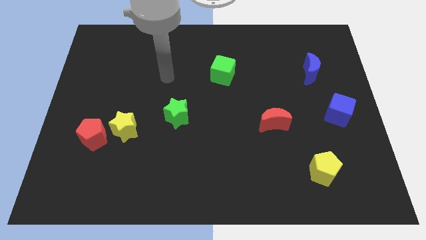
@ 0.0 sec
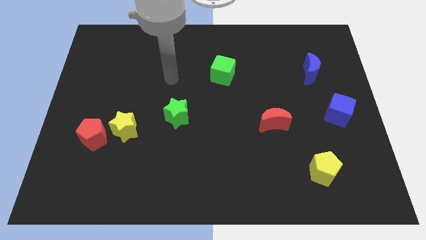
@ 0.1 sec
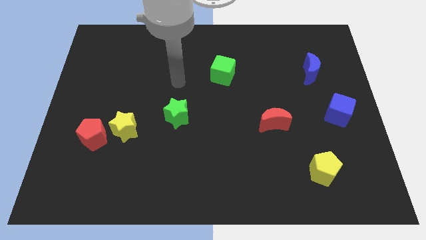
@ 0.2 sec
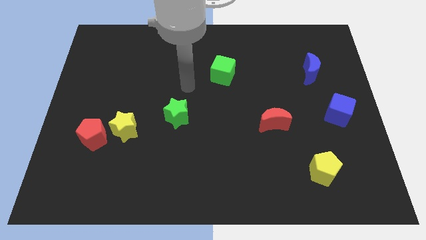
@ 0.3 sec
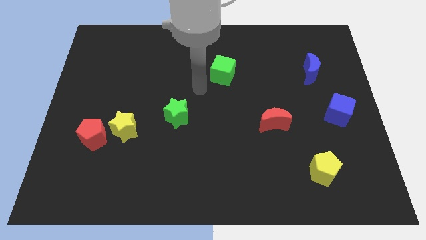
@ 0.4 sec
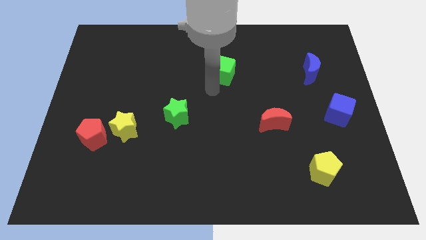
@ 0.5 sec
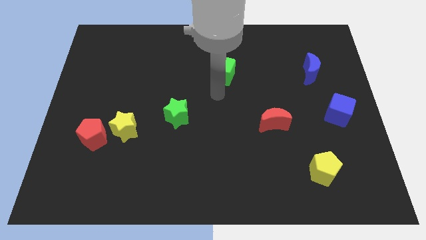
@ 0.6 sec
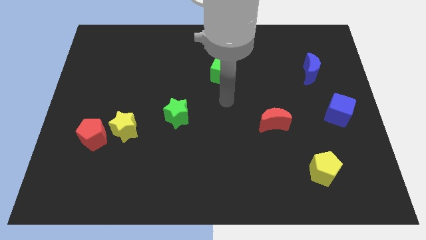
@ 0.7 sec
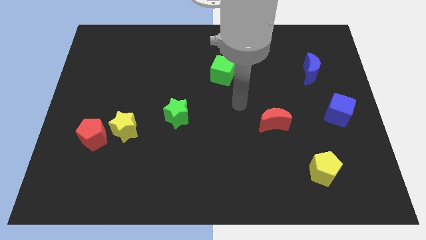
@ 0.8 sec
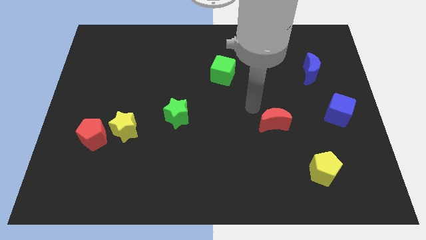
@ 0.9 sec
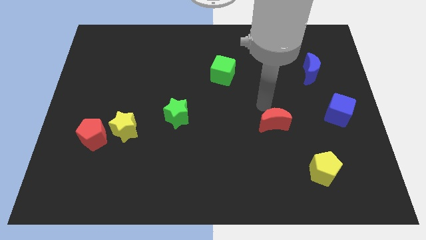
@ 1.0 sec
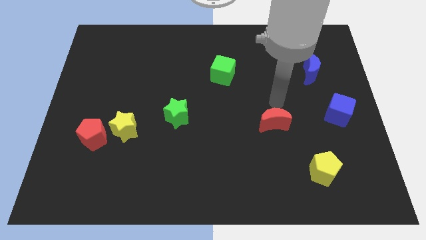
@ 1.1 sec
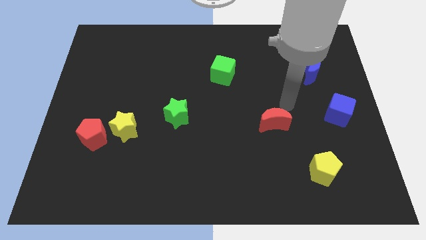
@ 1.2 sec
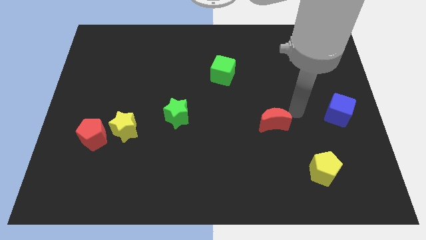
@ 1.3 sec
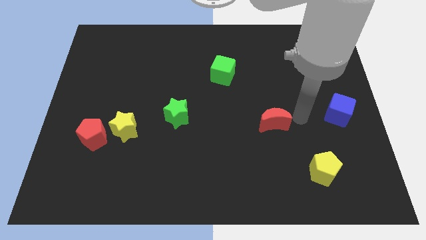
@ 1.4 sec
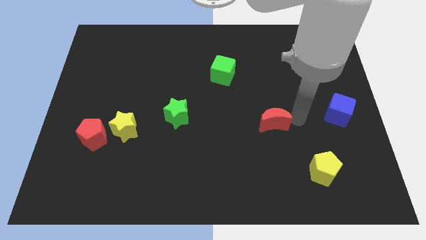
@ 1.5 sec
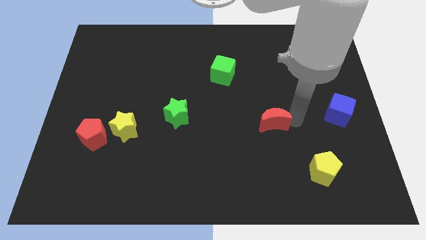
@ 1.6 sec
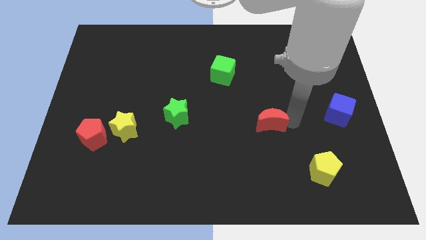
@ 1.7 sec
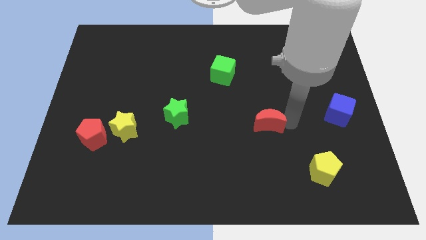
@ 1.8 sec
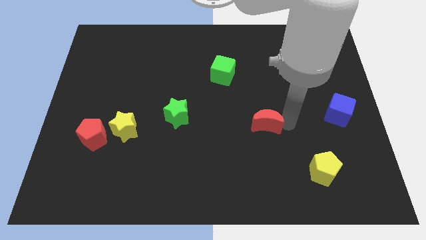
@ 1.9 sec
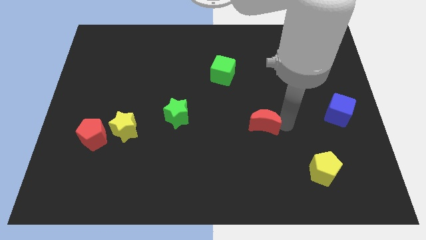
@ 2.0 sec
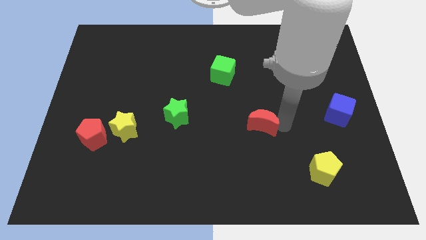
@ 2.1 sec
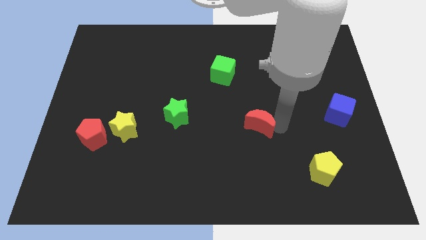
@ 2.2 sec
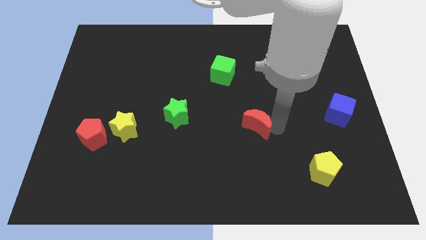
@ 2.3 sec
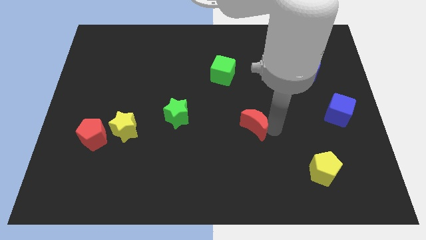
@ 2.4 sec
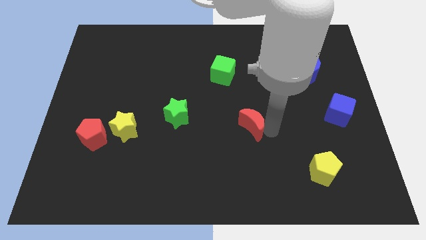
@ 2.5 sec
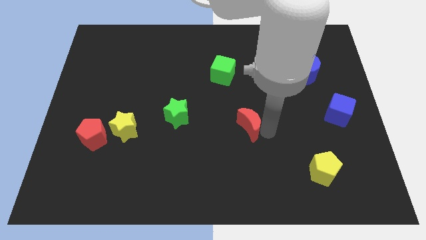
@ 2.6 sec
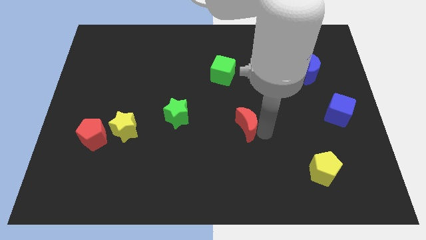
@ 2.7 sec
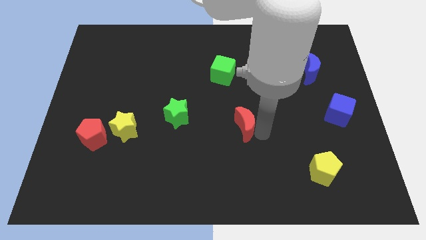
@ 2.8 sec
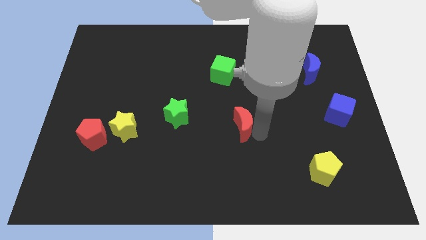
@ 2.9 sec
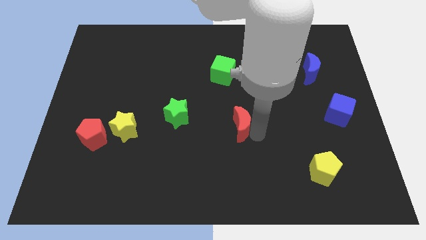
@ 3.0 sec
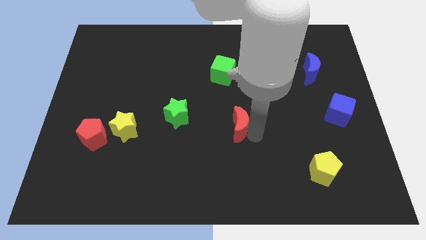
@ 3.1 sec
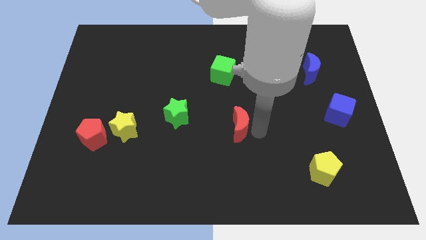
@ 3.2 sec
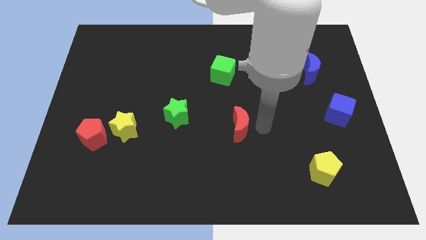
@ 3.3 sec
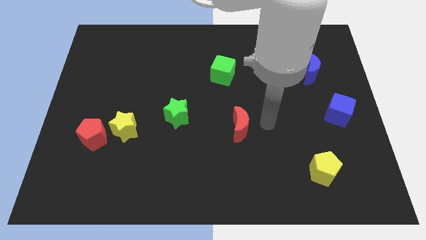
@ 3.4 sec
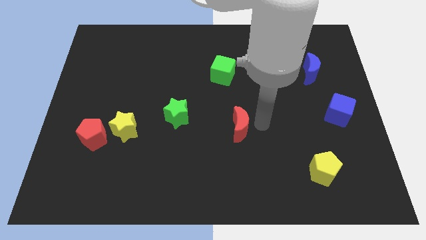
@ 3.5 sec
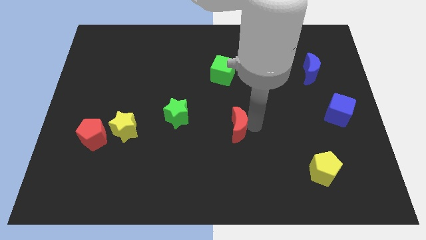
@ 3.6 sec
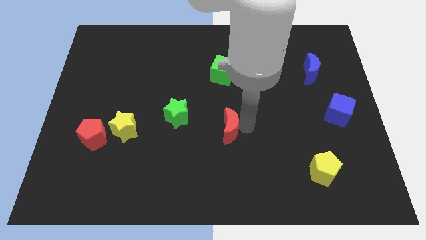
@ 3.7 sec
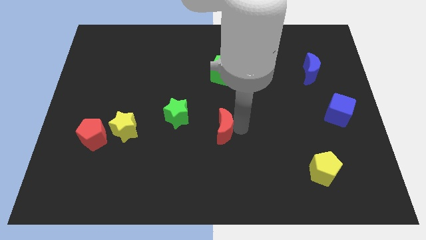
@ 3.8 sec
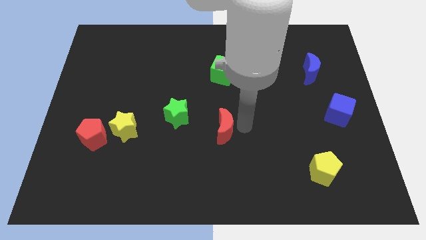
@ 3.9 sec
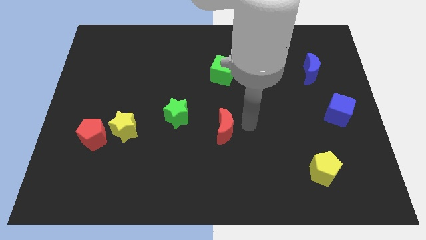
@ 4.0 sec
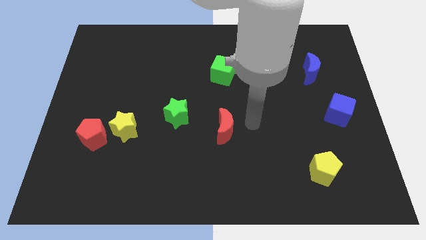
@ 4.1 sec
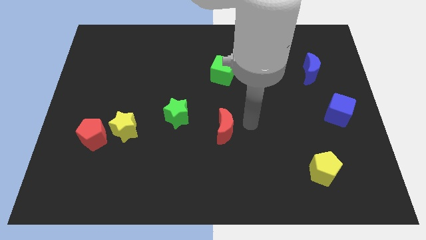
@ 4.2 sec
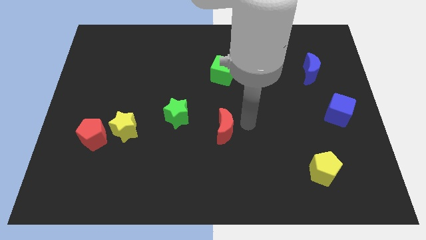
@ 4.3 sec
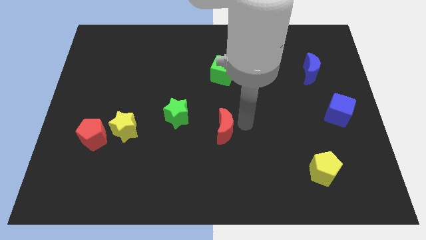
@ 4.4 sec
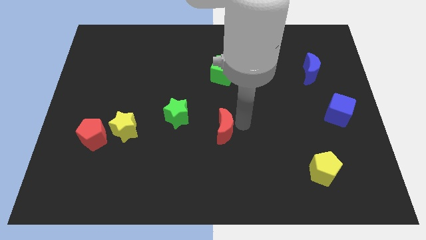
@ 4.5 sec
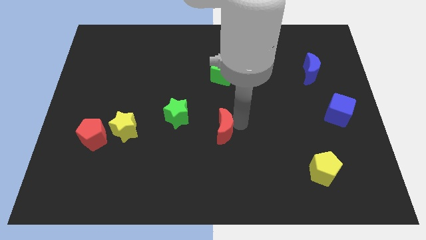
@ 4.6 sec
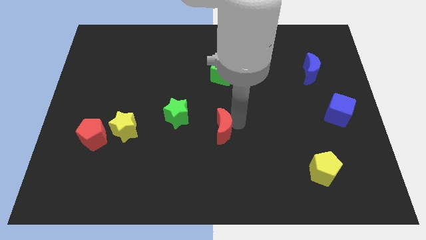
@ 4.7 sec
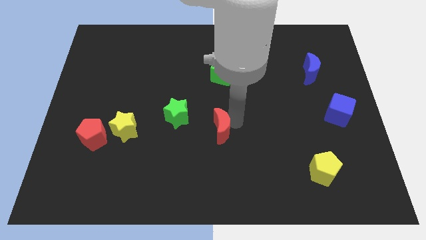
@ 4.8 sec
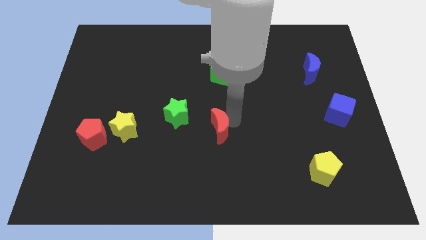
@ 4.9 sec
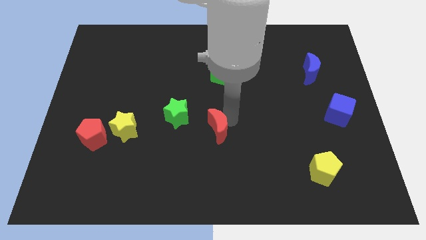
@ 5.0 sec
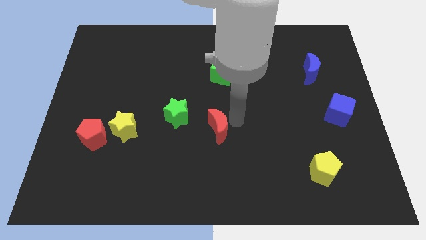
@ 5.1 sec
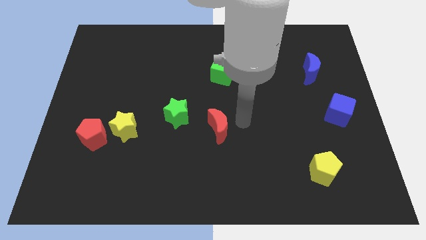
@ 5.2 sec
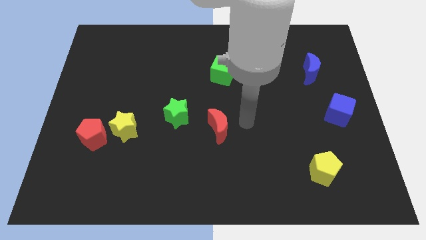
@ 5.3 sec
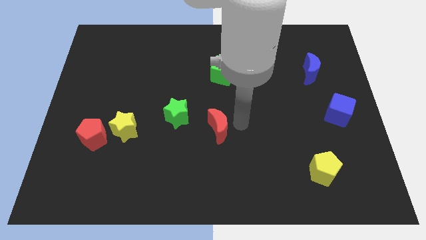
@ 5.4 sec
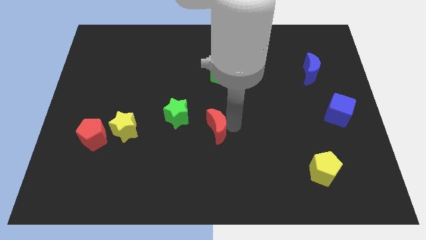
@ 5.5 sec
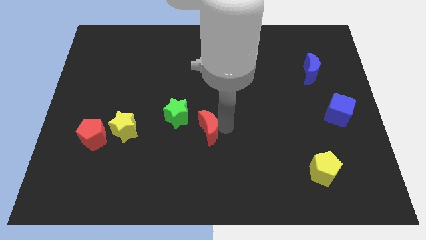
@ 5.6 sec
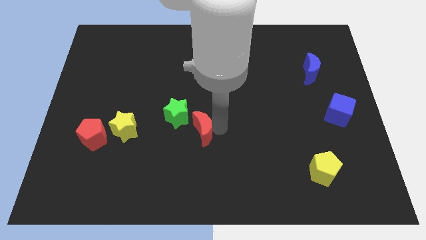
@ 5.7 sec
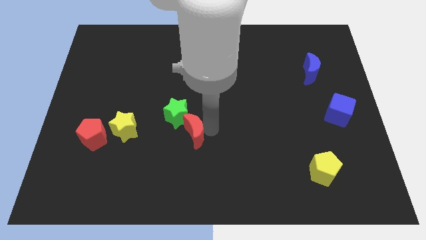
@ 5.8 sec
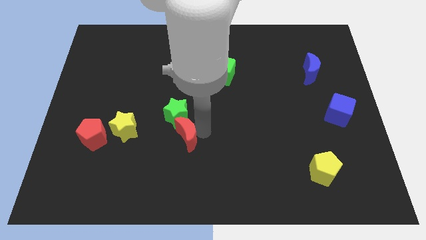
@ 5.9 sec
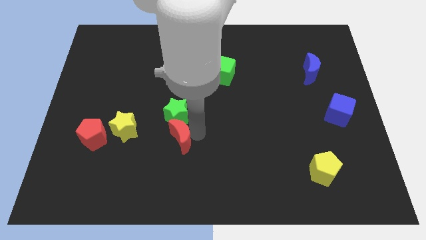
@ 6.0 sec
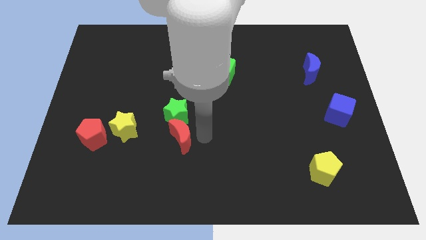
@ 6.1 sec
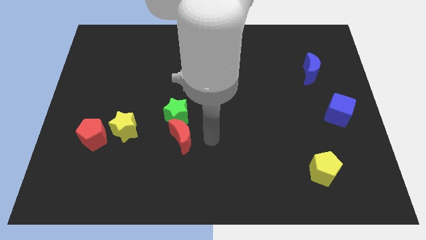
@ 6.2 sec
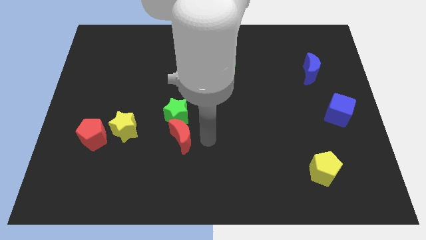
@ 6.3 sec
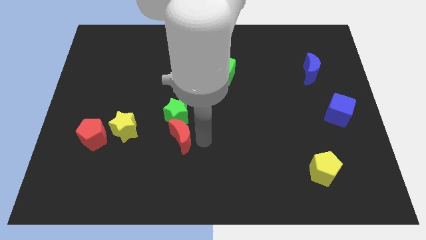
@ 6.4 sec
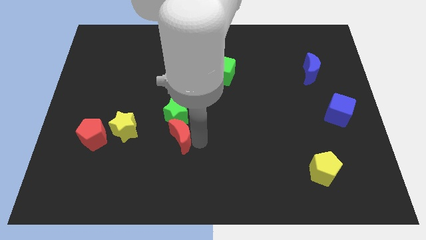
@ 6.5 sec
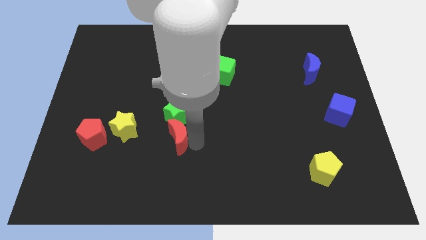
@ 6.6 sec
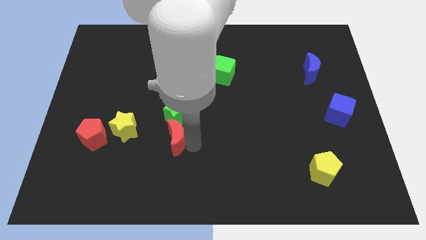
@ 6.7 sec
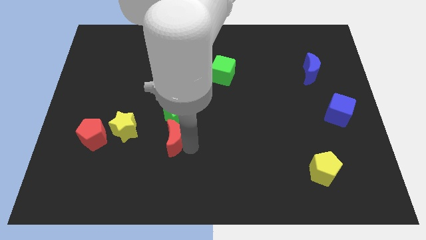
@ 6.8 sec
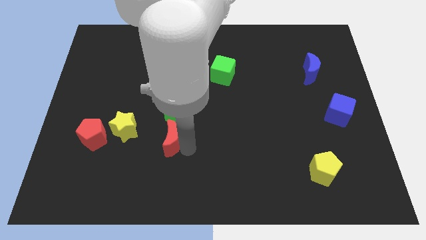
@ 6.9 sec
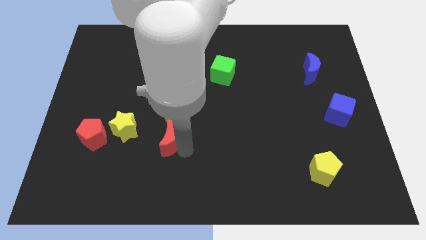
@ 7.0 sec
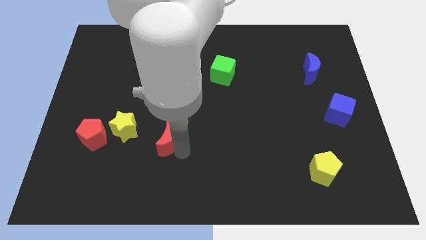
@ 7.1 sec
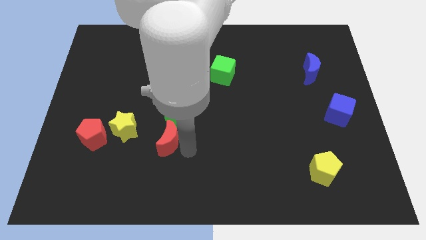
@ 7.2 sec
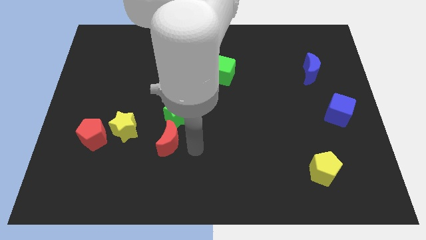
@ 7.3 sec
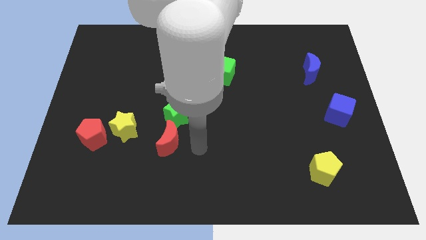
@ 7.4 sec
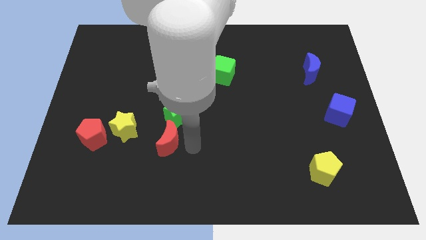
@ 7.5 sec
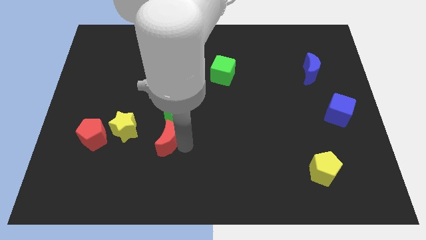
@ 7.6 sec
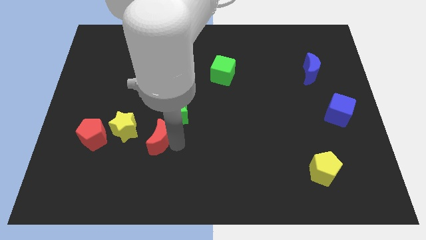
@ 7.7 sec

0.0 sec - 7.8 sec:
push the red moon just right of the red pentagon
